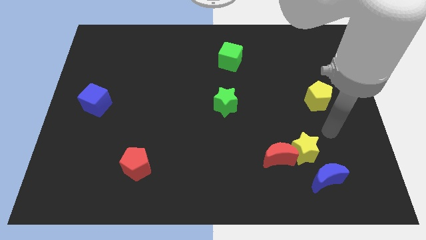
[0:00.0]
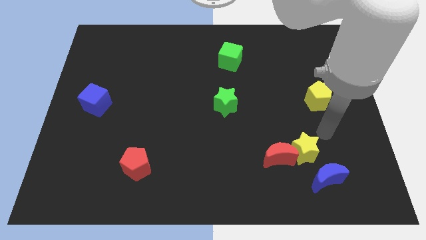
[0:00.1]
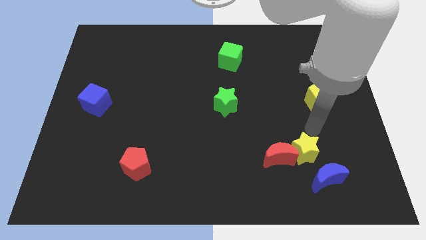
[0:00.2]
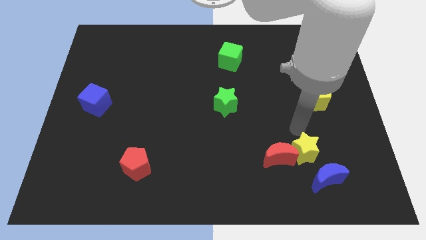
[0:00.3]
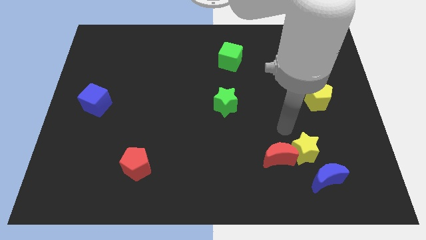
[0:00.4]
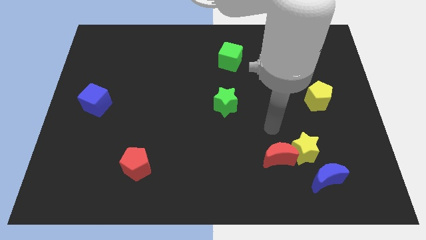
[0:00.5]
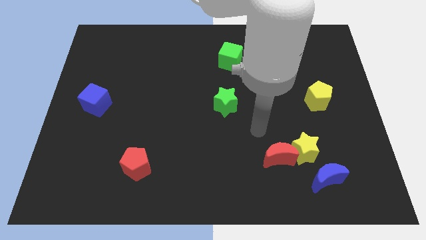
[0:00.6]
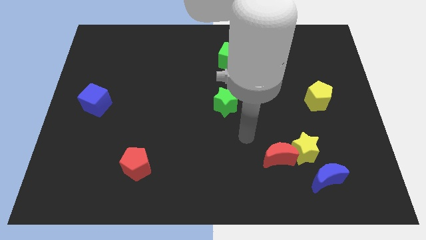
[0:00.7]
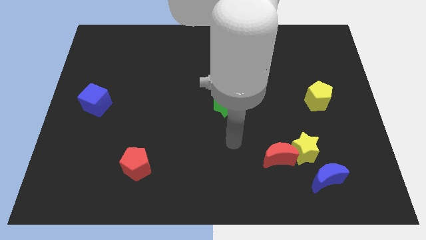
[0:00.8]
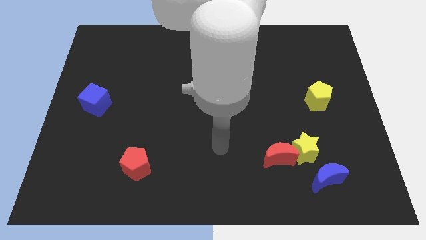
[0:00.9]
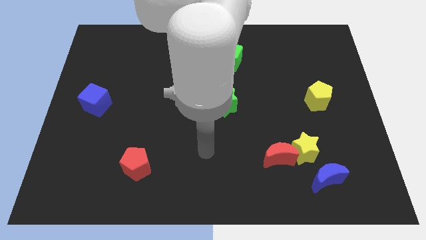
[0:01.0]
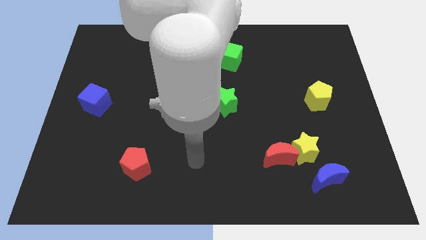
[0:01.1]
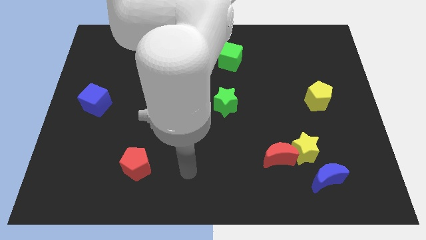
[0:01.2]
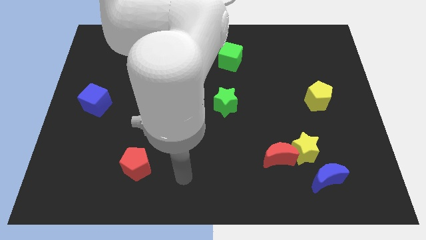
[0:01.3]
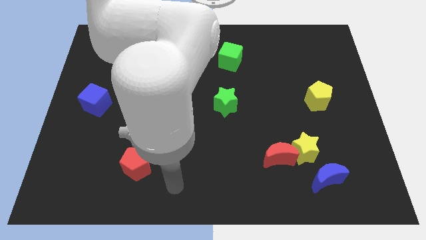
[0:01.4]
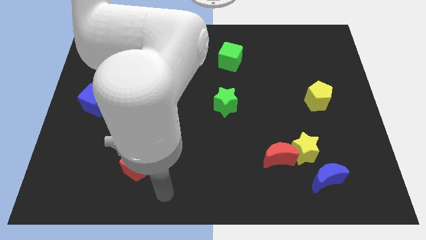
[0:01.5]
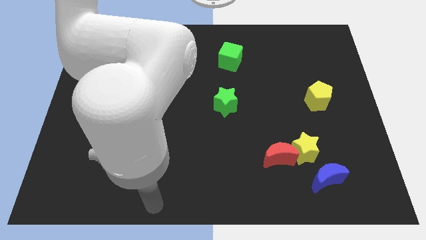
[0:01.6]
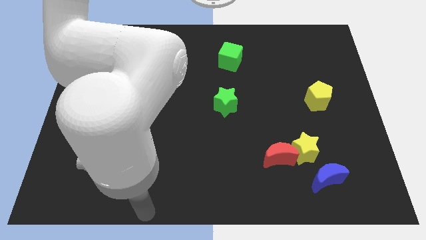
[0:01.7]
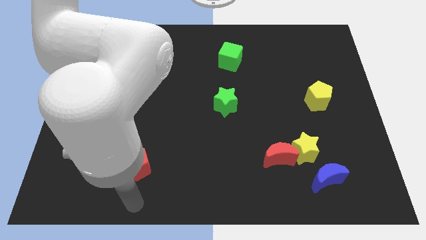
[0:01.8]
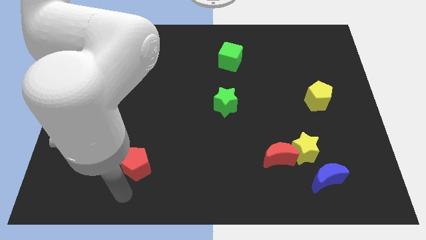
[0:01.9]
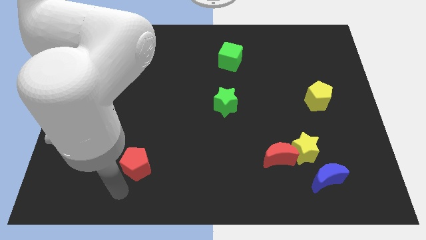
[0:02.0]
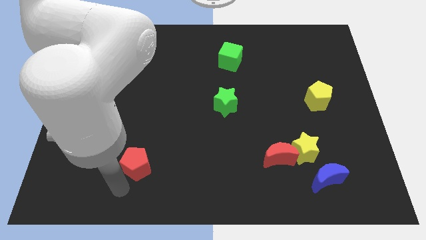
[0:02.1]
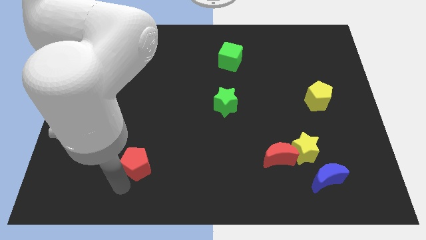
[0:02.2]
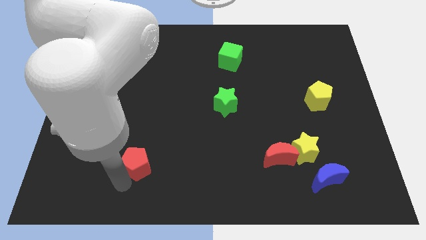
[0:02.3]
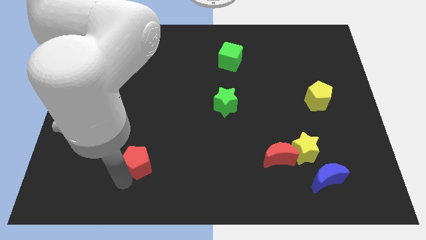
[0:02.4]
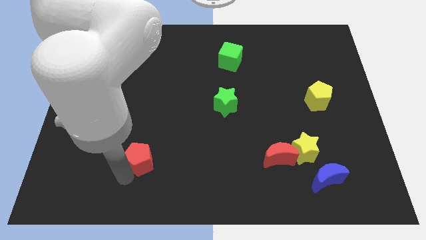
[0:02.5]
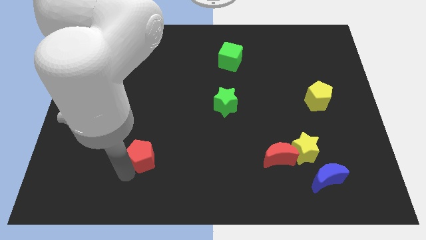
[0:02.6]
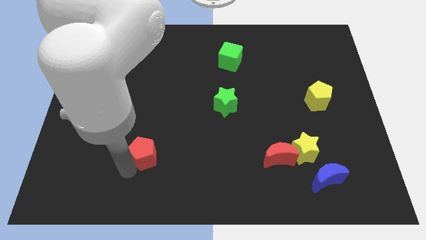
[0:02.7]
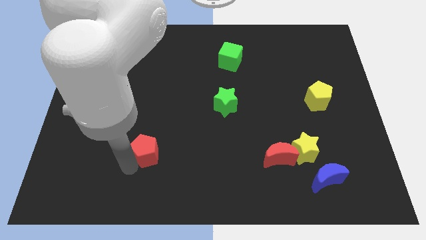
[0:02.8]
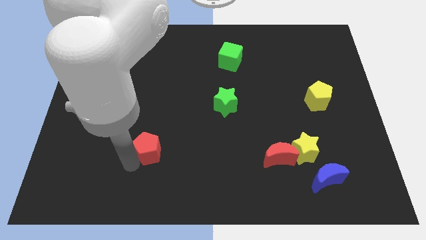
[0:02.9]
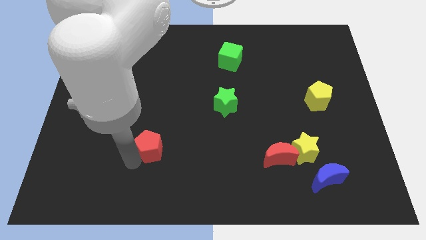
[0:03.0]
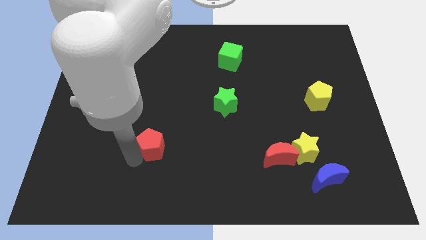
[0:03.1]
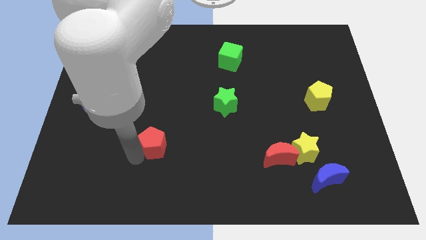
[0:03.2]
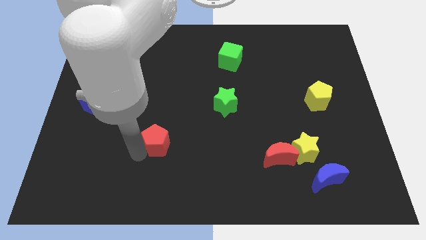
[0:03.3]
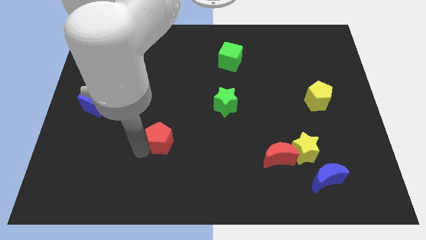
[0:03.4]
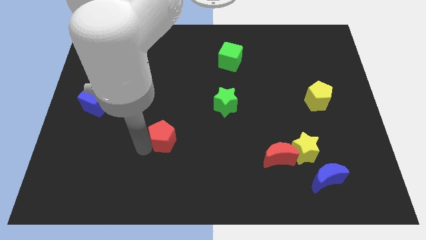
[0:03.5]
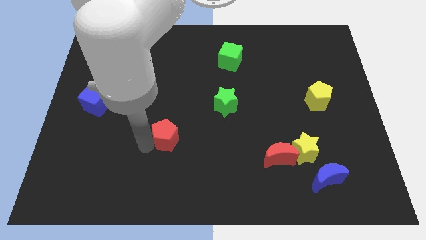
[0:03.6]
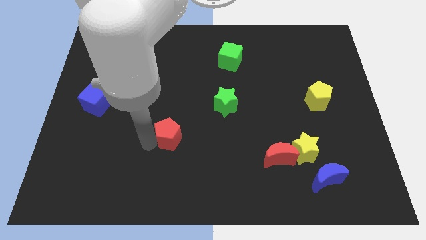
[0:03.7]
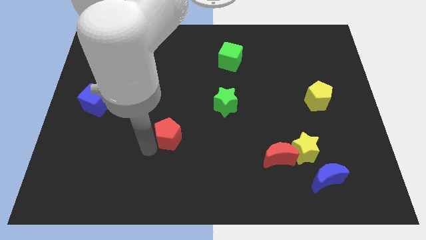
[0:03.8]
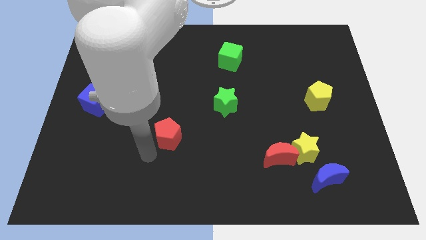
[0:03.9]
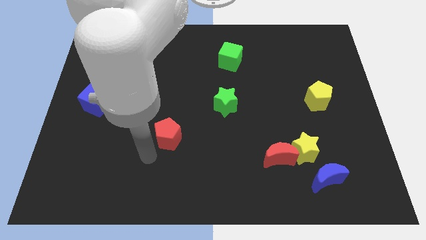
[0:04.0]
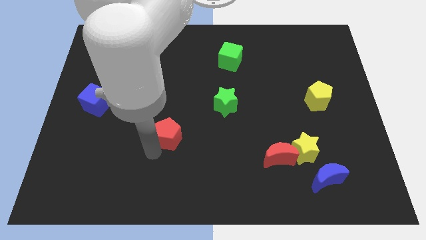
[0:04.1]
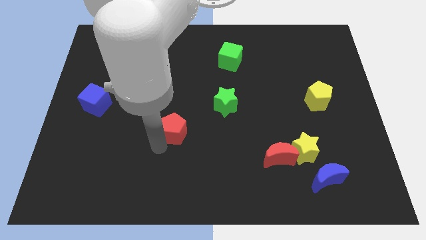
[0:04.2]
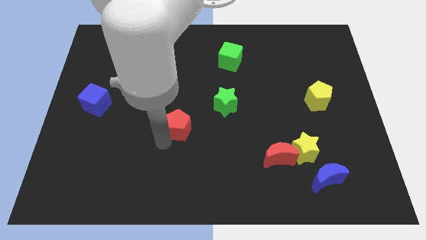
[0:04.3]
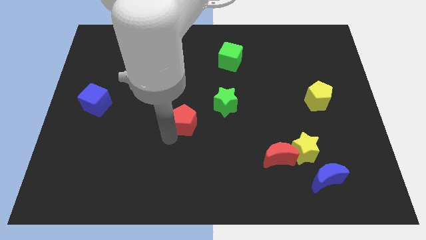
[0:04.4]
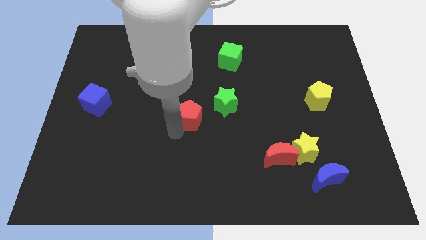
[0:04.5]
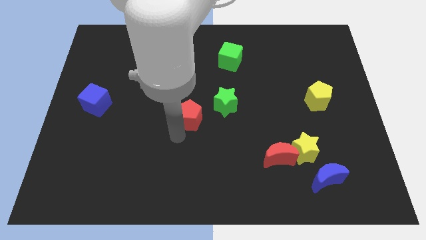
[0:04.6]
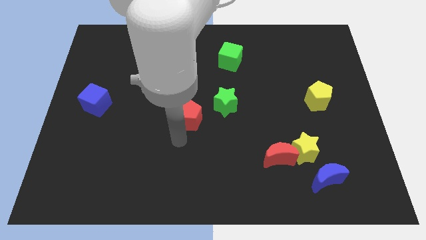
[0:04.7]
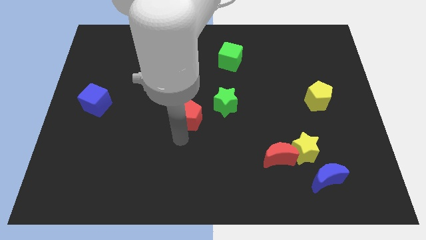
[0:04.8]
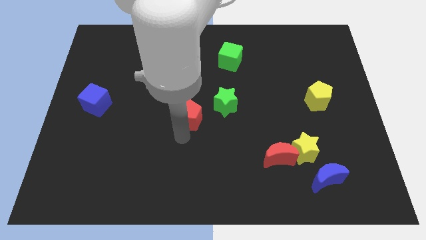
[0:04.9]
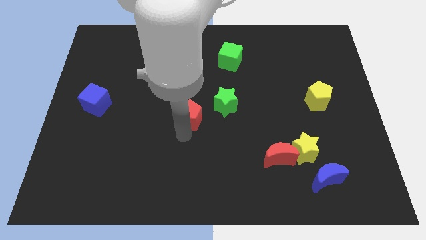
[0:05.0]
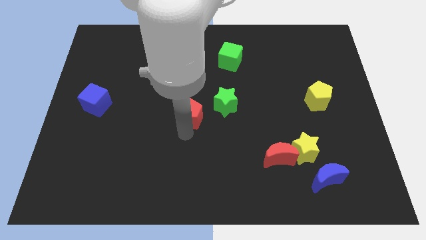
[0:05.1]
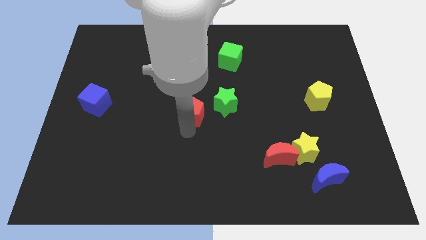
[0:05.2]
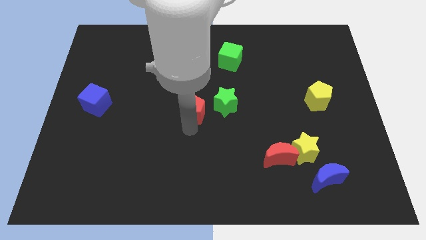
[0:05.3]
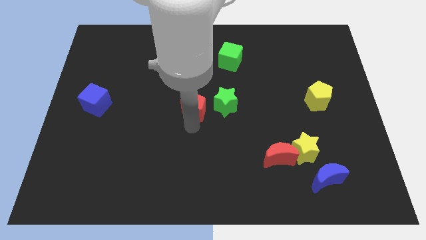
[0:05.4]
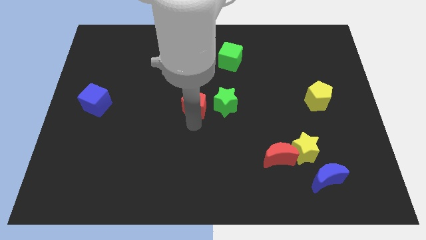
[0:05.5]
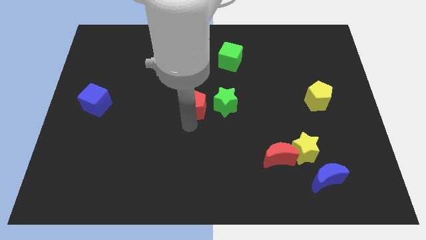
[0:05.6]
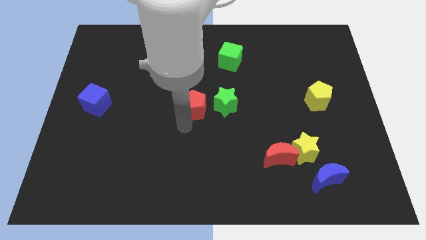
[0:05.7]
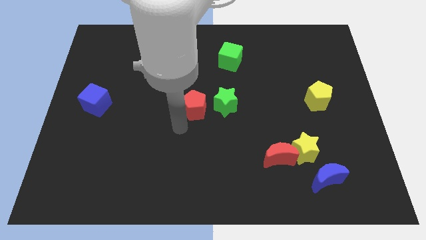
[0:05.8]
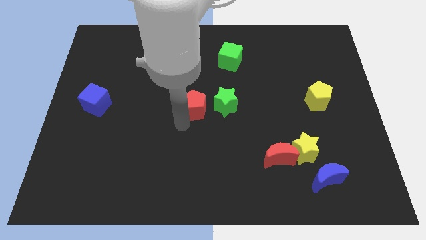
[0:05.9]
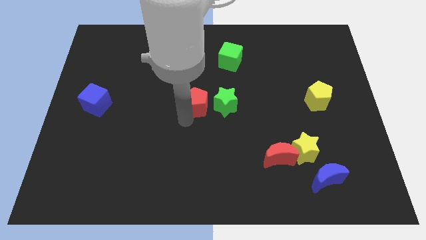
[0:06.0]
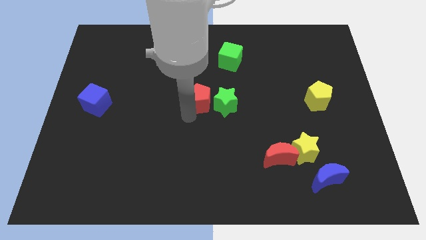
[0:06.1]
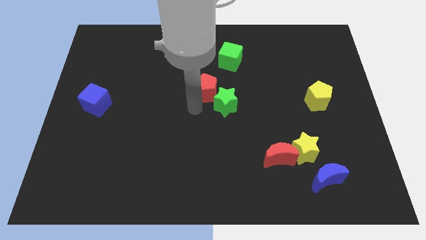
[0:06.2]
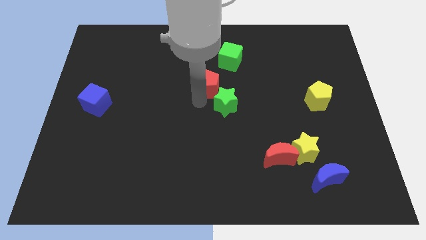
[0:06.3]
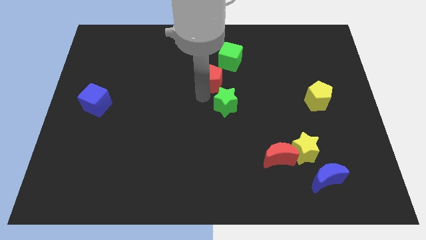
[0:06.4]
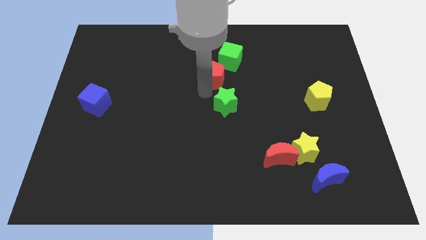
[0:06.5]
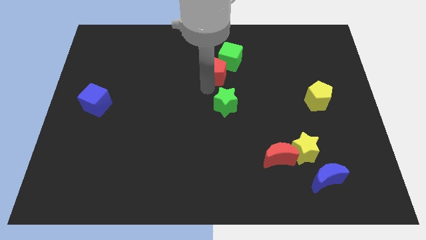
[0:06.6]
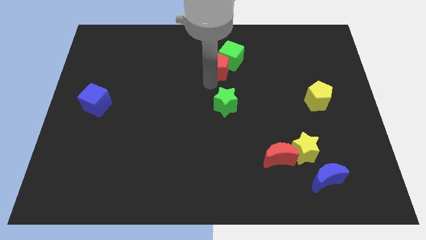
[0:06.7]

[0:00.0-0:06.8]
move the red pentagon next to the green cube

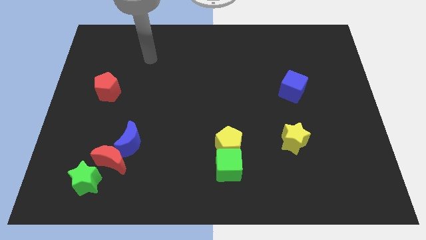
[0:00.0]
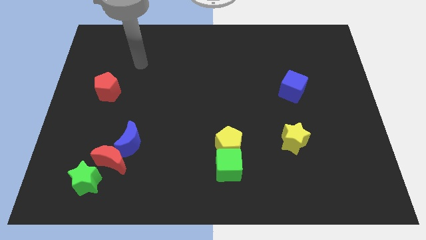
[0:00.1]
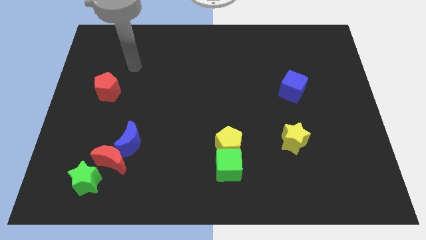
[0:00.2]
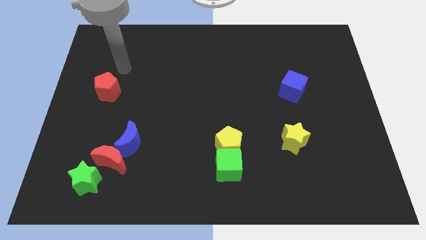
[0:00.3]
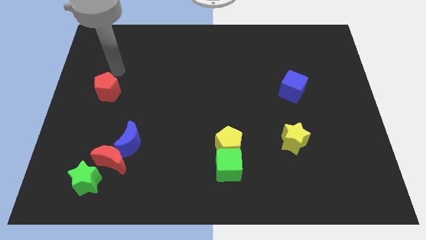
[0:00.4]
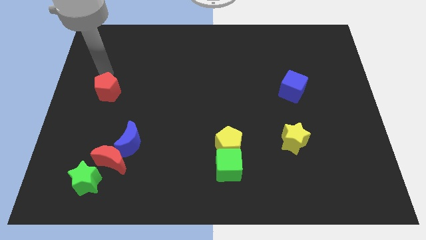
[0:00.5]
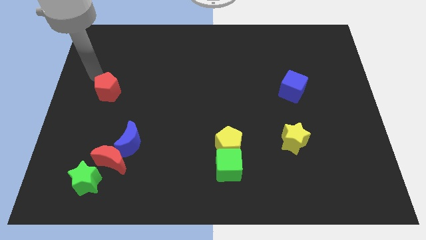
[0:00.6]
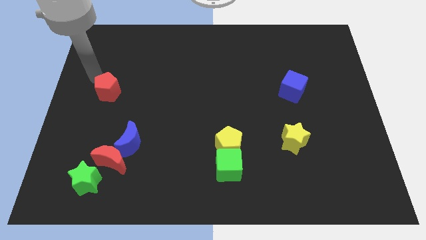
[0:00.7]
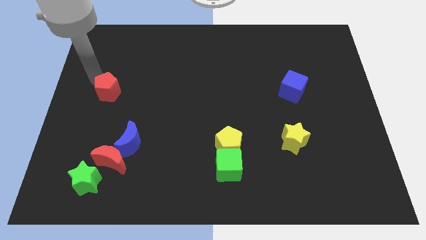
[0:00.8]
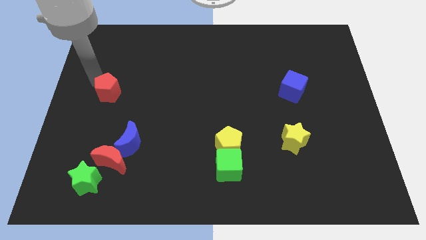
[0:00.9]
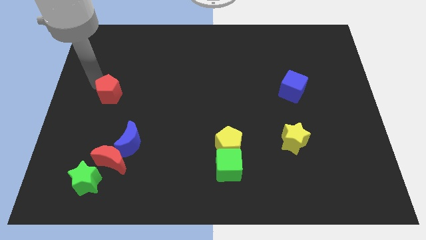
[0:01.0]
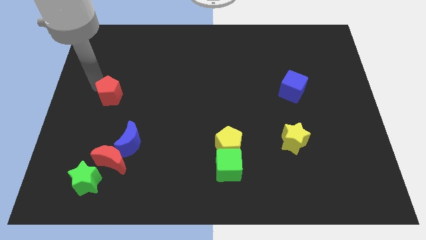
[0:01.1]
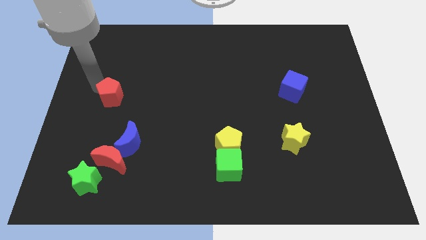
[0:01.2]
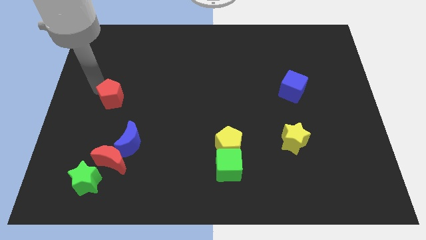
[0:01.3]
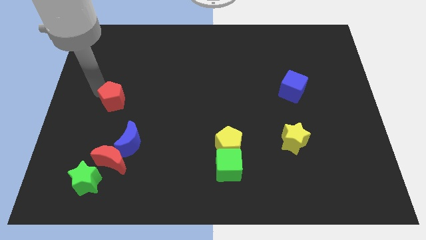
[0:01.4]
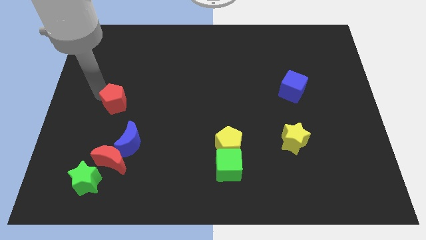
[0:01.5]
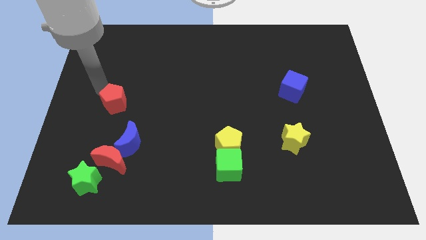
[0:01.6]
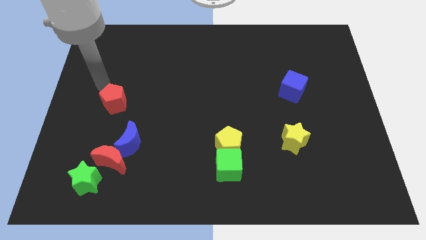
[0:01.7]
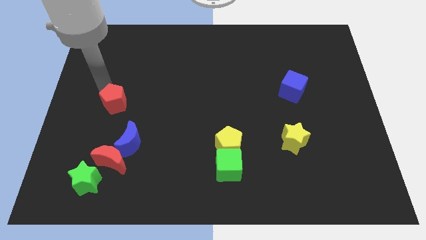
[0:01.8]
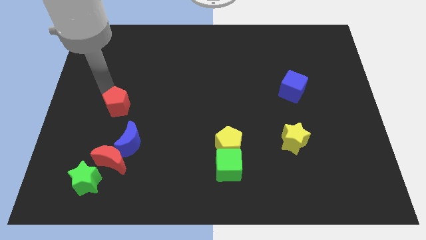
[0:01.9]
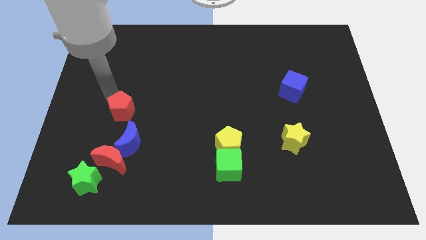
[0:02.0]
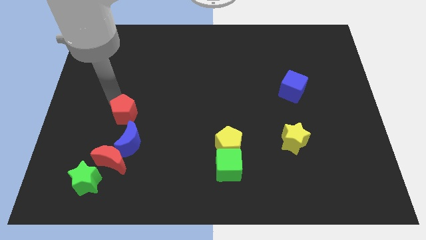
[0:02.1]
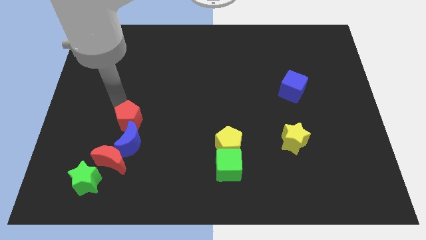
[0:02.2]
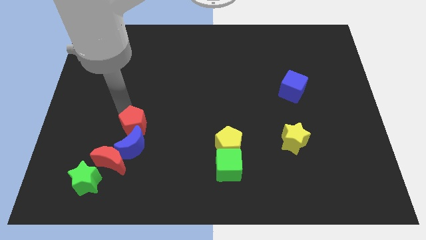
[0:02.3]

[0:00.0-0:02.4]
slide the red pentagon next to the blue moon
